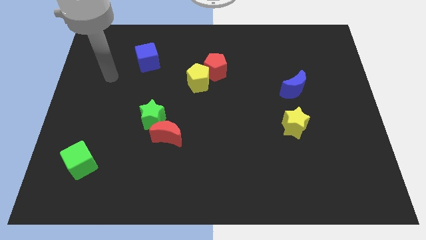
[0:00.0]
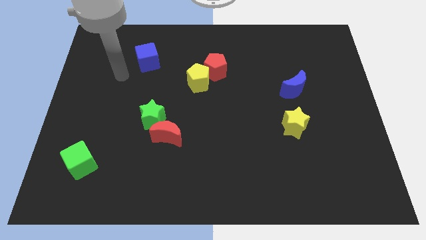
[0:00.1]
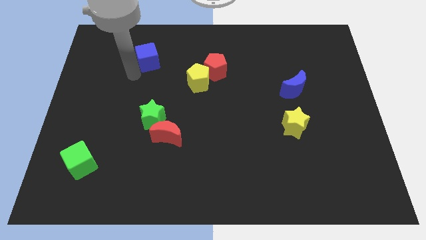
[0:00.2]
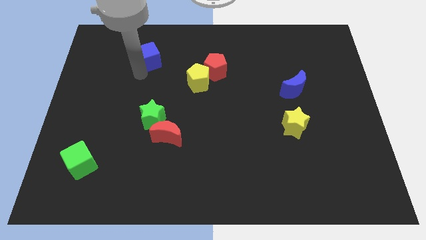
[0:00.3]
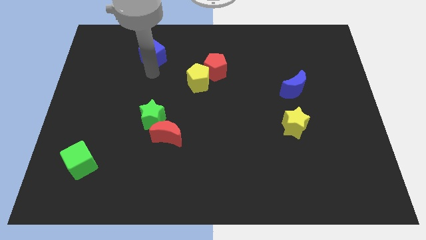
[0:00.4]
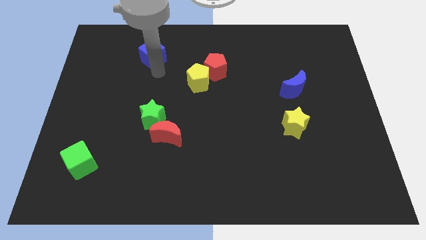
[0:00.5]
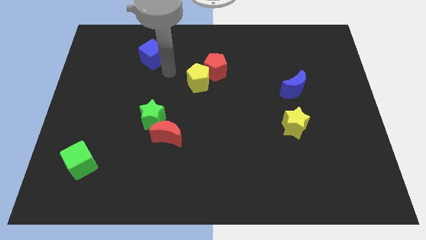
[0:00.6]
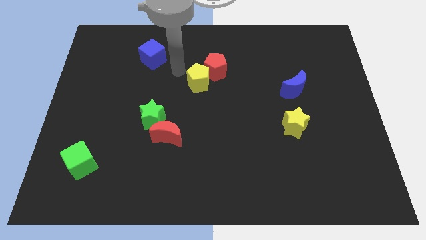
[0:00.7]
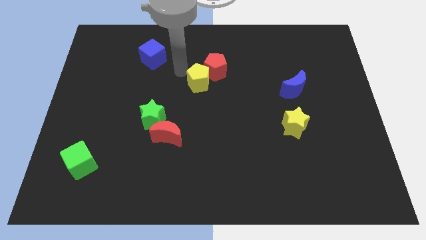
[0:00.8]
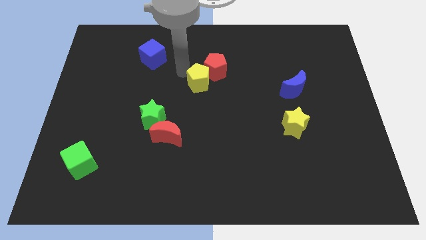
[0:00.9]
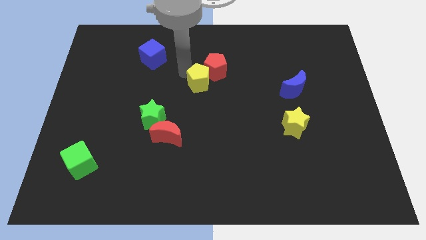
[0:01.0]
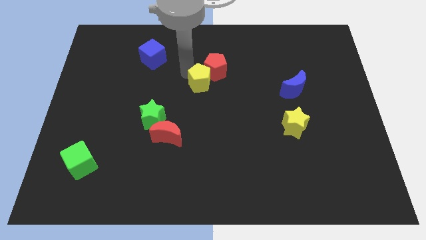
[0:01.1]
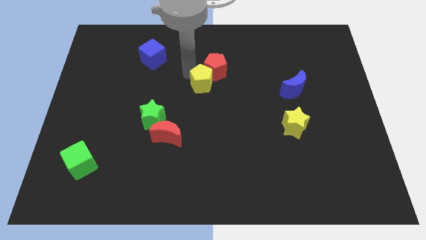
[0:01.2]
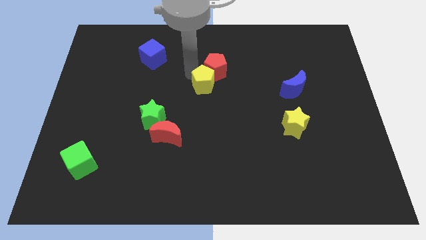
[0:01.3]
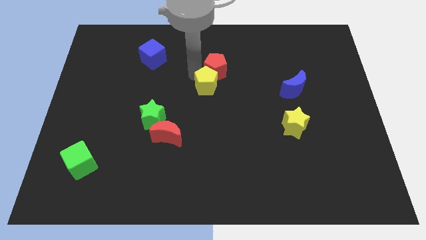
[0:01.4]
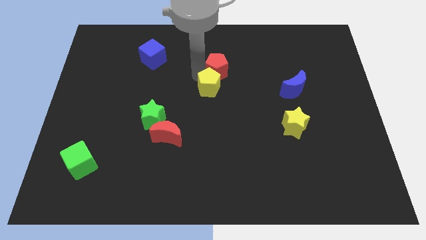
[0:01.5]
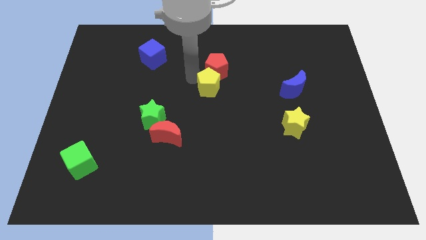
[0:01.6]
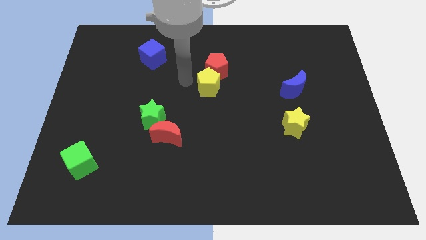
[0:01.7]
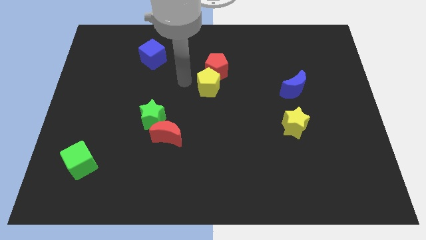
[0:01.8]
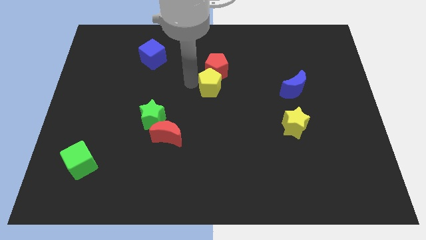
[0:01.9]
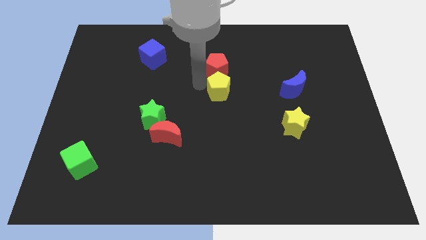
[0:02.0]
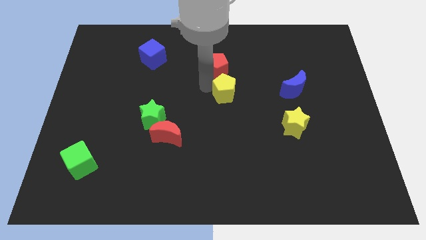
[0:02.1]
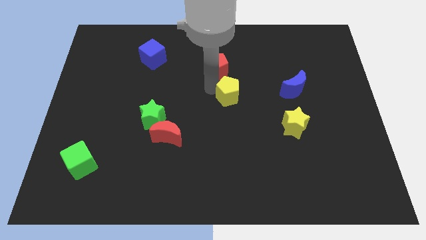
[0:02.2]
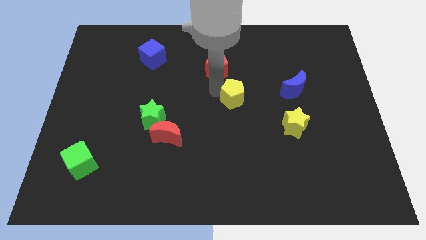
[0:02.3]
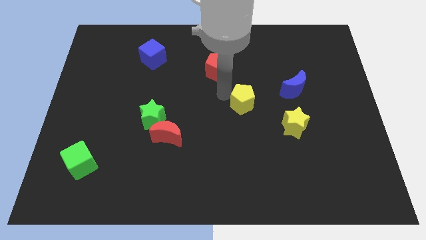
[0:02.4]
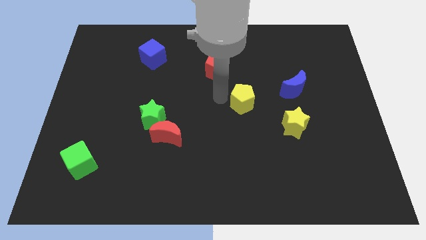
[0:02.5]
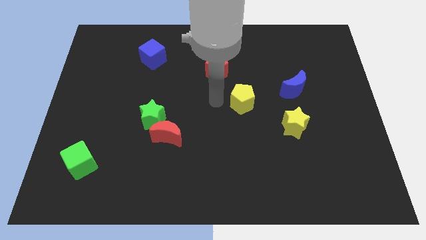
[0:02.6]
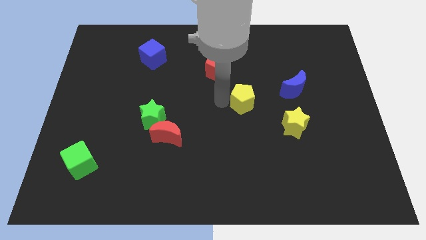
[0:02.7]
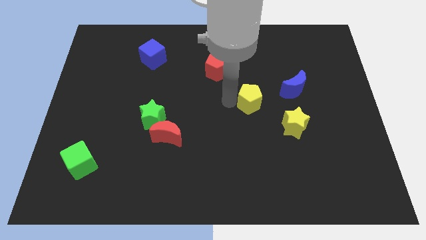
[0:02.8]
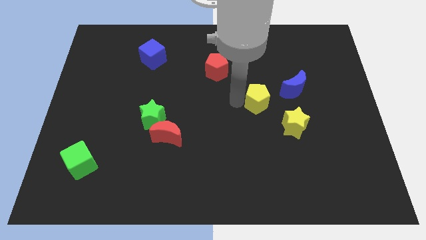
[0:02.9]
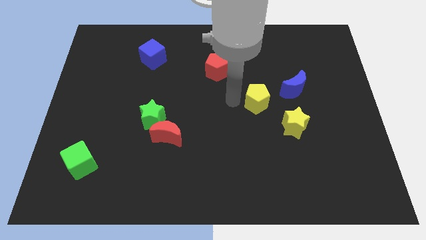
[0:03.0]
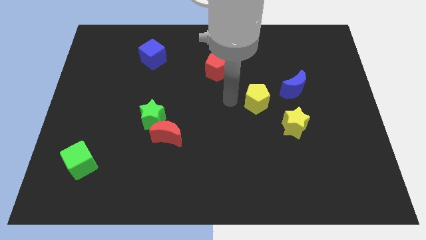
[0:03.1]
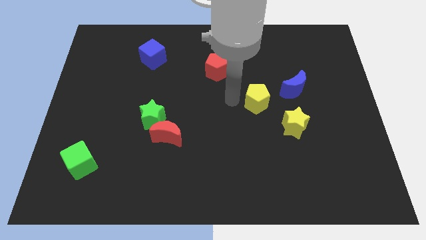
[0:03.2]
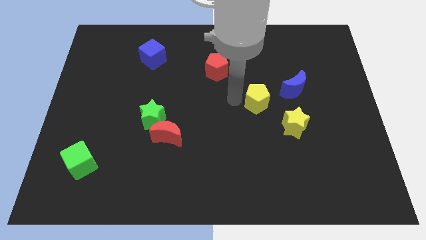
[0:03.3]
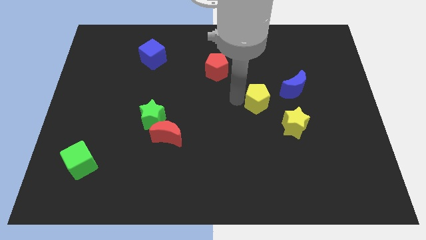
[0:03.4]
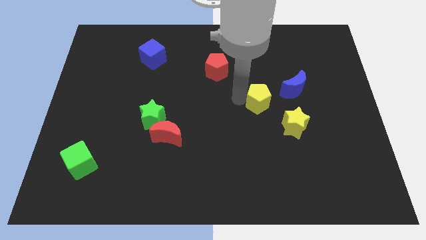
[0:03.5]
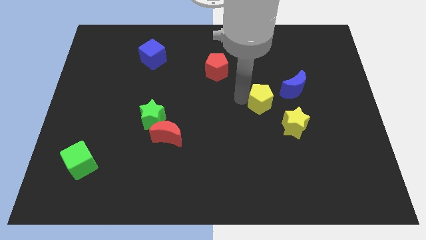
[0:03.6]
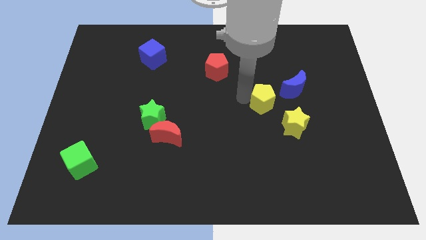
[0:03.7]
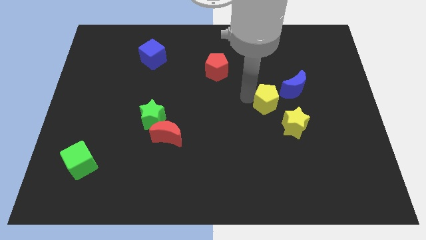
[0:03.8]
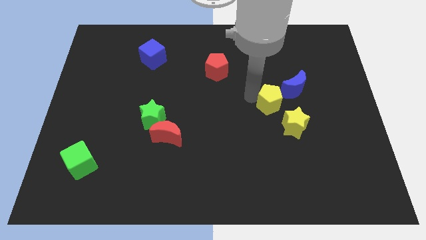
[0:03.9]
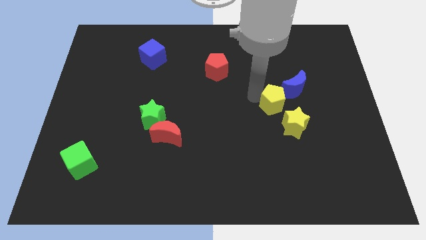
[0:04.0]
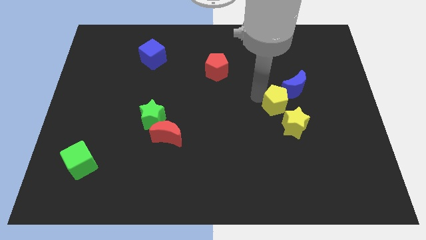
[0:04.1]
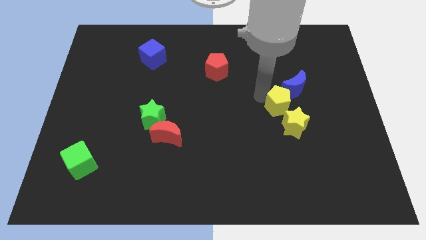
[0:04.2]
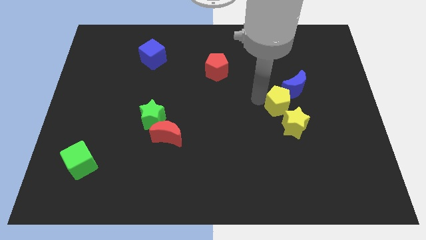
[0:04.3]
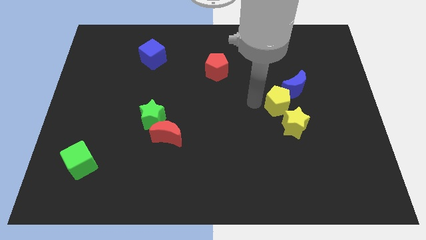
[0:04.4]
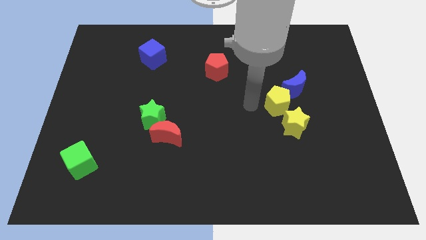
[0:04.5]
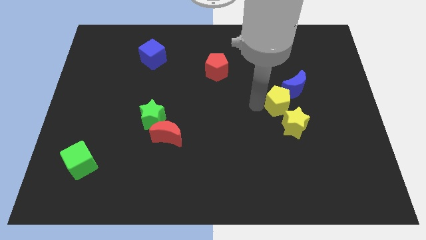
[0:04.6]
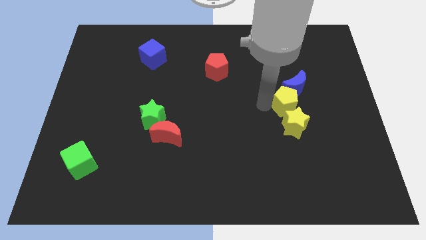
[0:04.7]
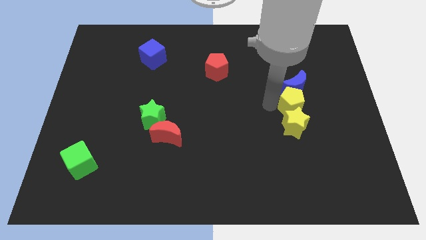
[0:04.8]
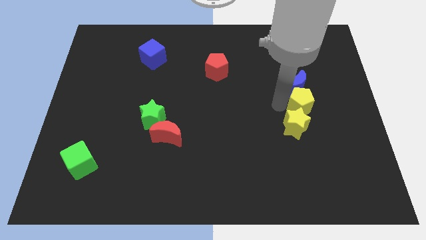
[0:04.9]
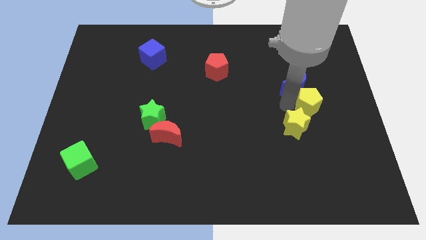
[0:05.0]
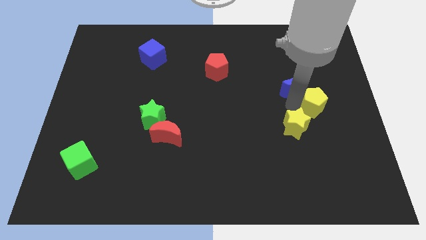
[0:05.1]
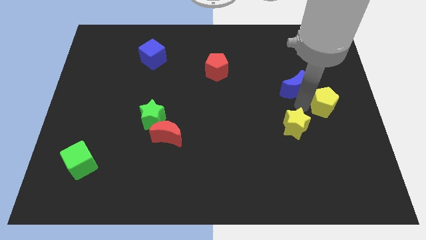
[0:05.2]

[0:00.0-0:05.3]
slide the yellow pentagon to the center right

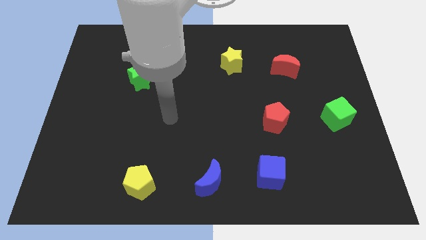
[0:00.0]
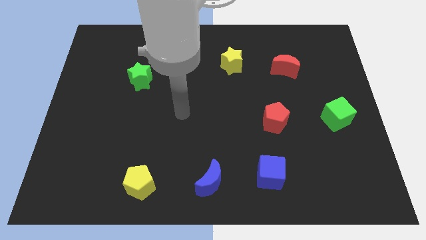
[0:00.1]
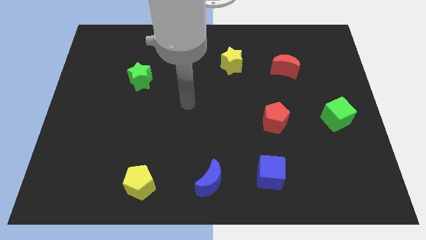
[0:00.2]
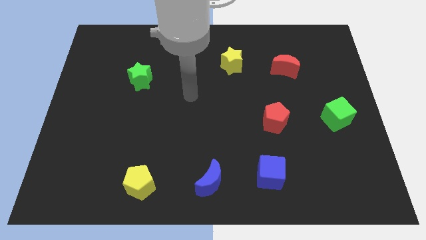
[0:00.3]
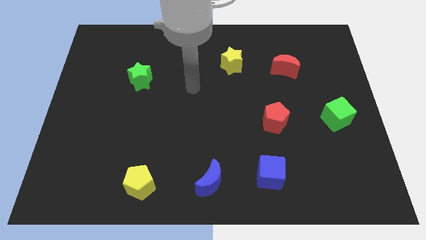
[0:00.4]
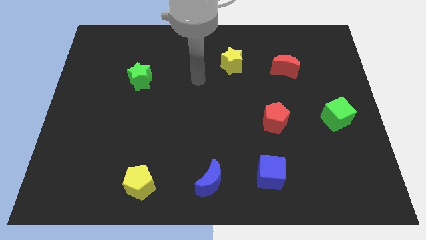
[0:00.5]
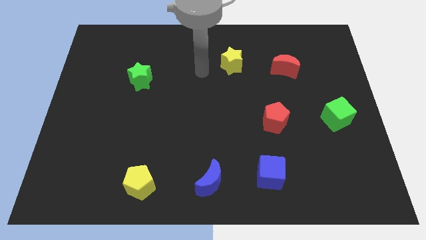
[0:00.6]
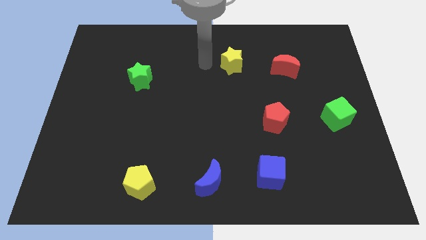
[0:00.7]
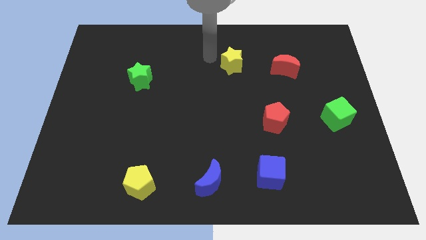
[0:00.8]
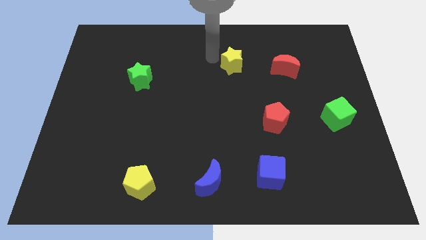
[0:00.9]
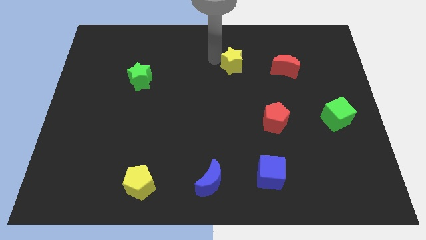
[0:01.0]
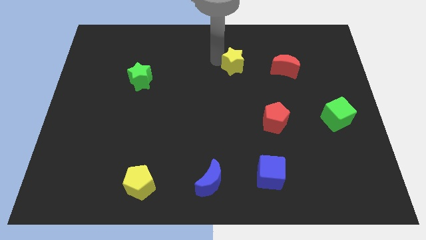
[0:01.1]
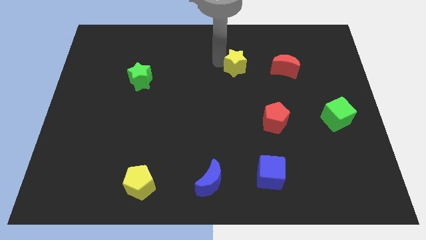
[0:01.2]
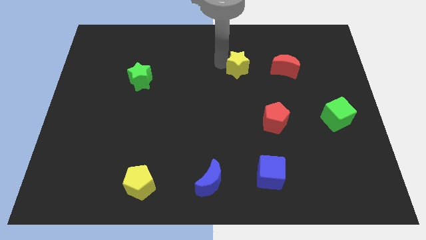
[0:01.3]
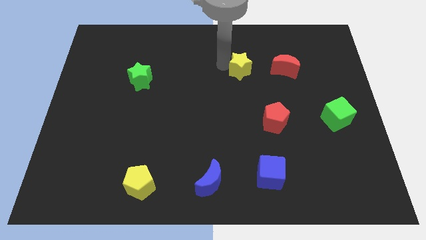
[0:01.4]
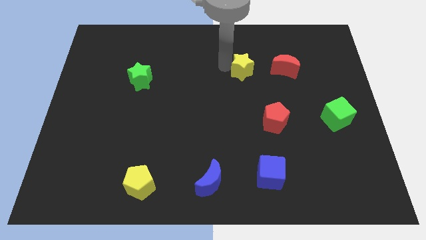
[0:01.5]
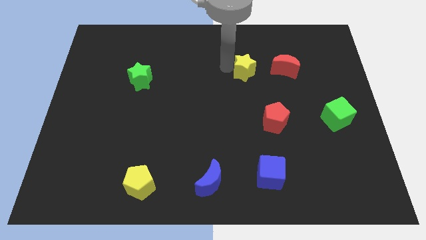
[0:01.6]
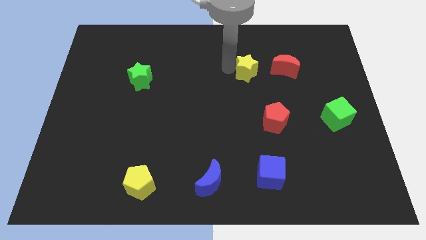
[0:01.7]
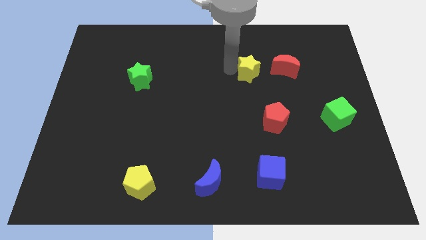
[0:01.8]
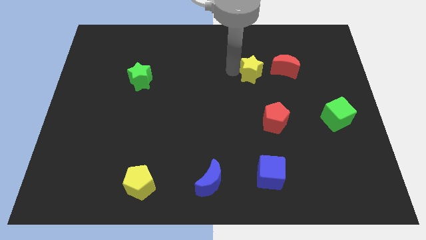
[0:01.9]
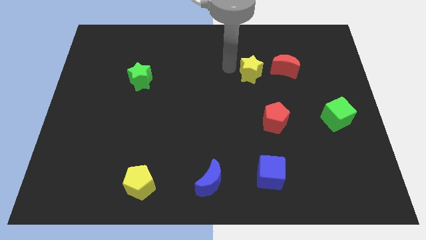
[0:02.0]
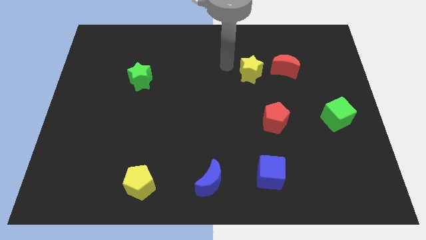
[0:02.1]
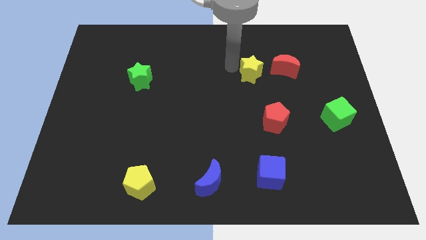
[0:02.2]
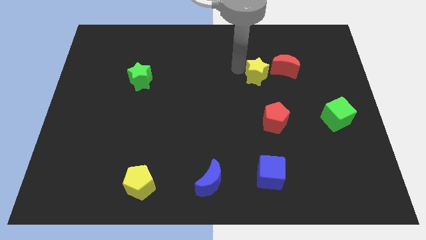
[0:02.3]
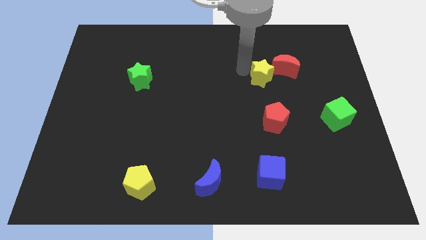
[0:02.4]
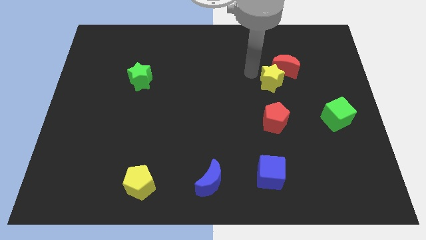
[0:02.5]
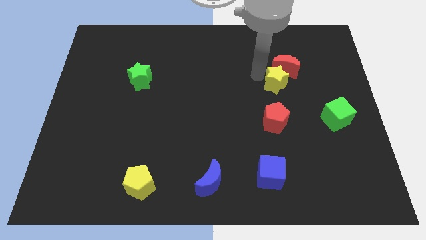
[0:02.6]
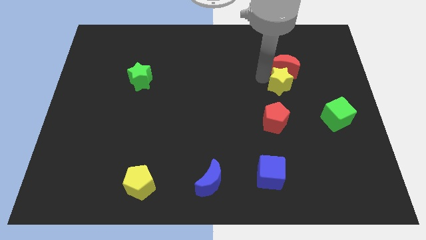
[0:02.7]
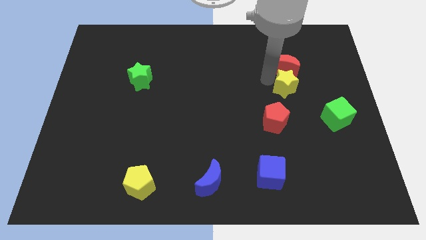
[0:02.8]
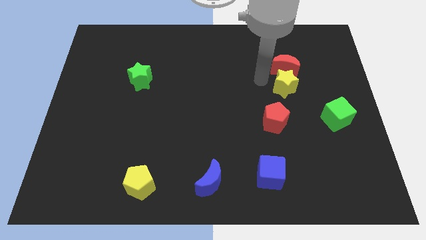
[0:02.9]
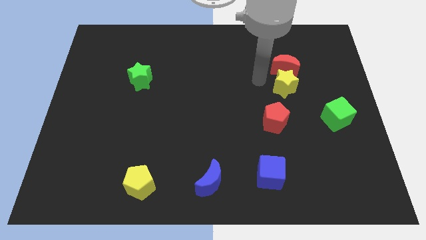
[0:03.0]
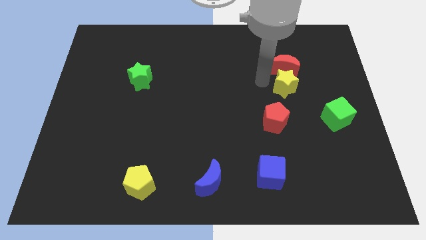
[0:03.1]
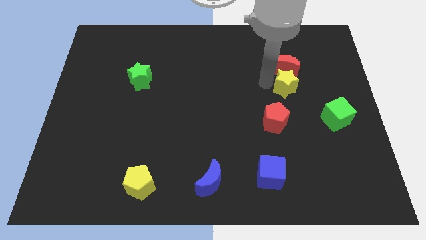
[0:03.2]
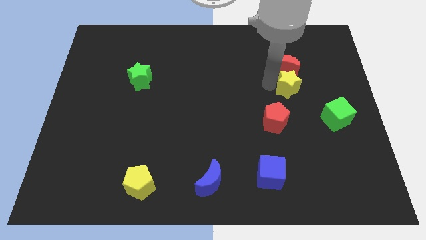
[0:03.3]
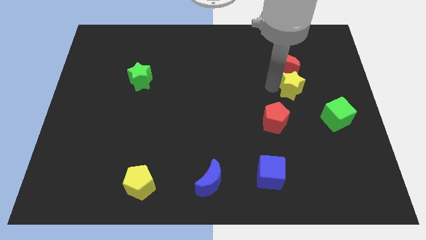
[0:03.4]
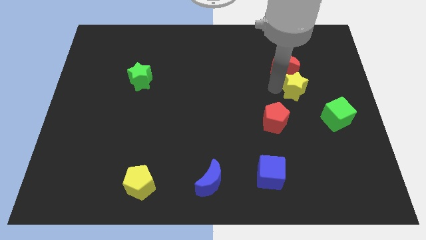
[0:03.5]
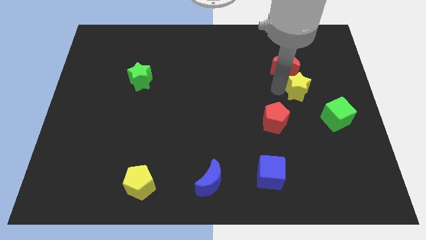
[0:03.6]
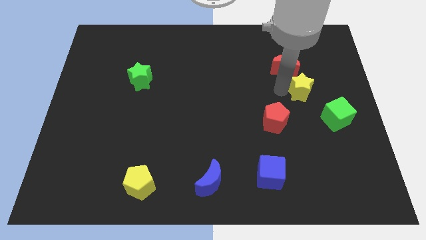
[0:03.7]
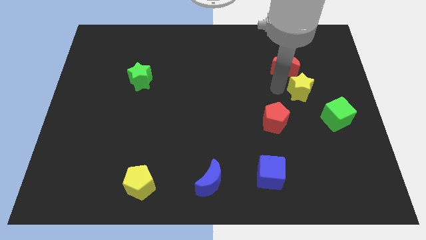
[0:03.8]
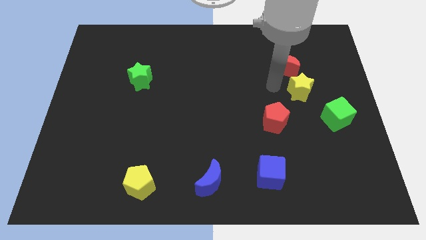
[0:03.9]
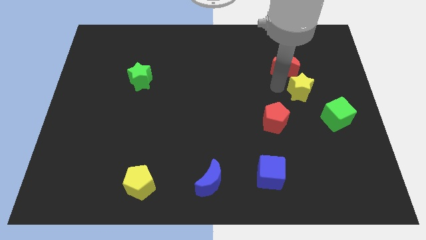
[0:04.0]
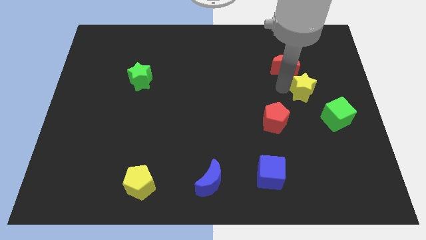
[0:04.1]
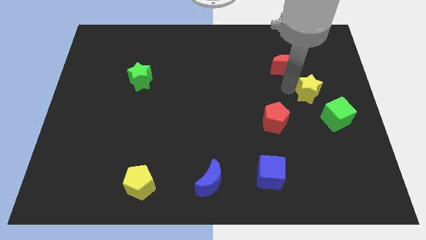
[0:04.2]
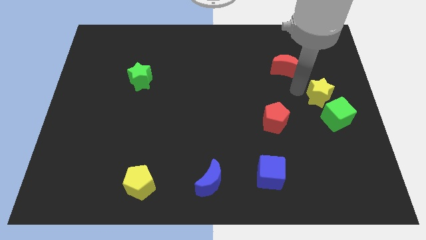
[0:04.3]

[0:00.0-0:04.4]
move the yellow star to the right side of the board
